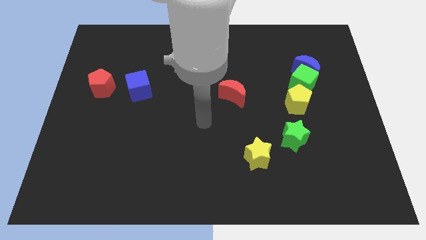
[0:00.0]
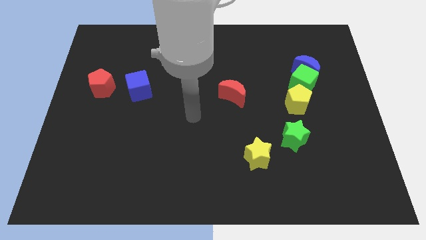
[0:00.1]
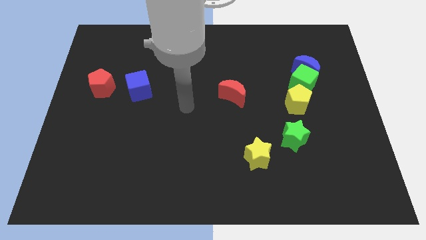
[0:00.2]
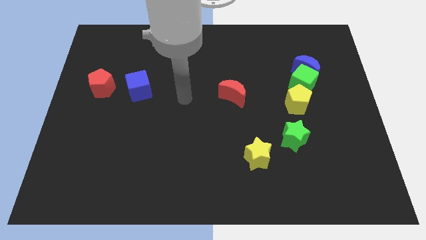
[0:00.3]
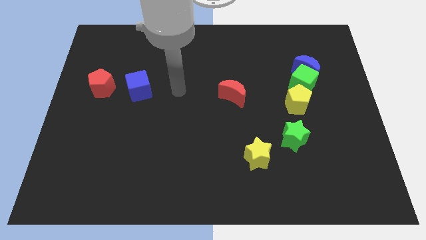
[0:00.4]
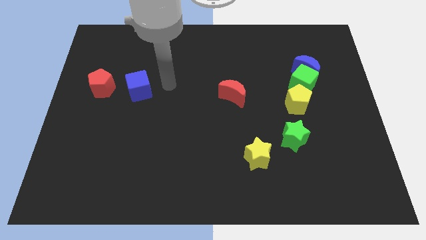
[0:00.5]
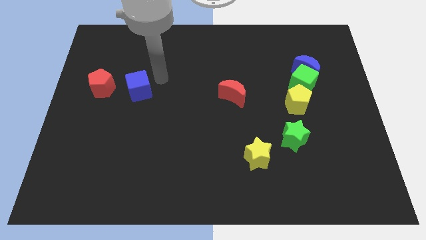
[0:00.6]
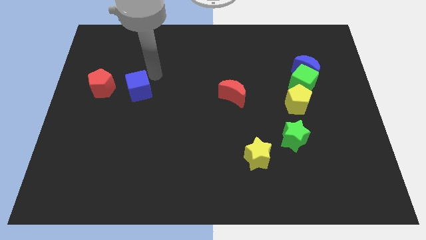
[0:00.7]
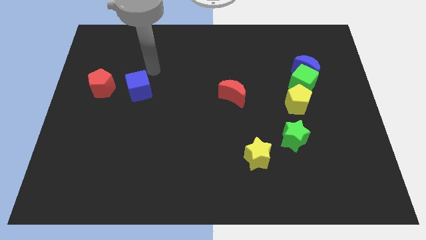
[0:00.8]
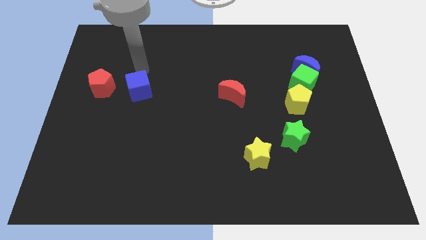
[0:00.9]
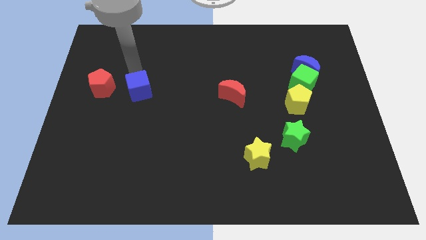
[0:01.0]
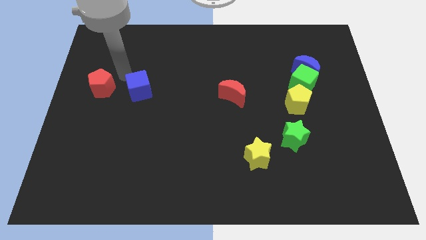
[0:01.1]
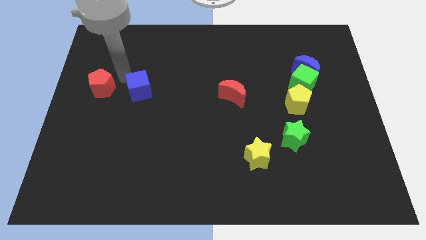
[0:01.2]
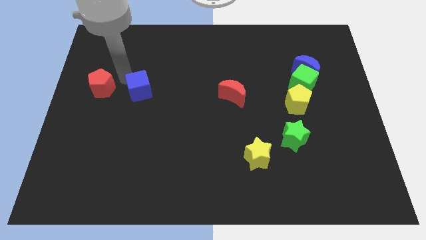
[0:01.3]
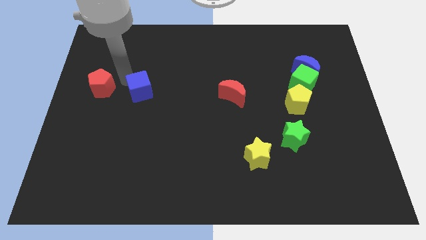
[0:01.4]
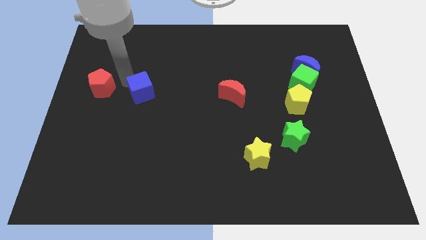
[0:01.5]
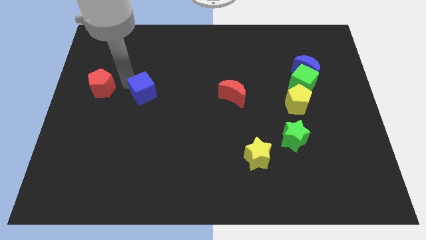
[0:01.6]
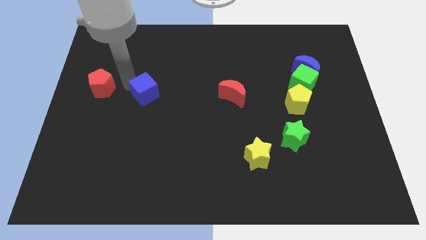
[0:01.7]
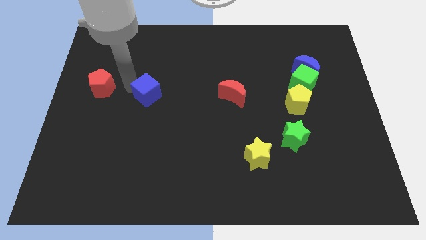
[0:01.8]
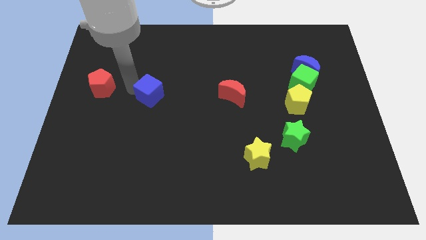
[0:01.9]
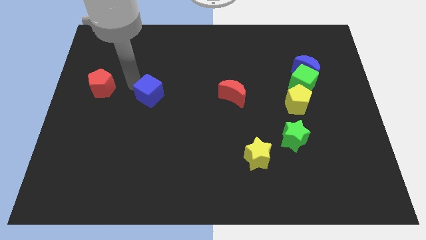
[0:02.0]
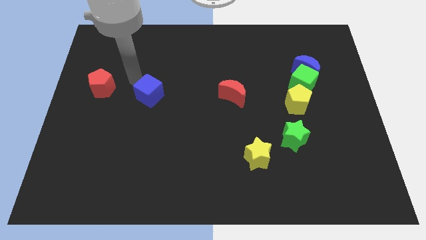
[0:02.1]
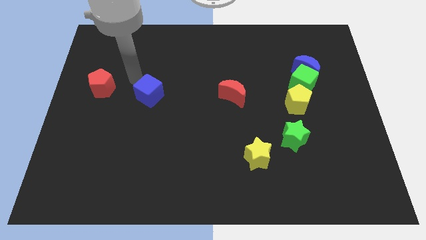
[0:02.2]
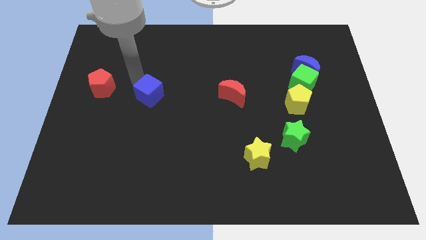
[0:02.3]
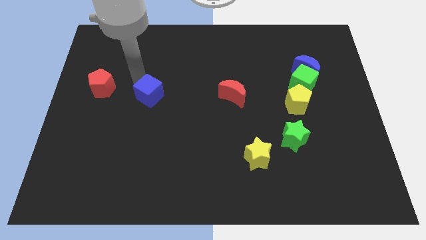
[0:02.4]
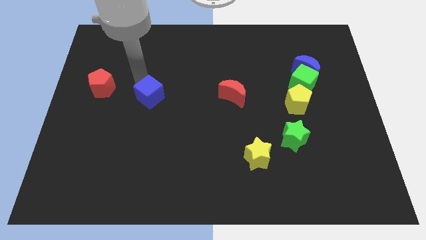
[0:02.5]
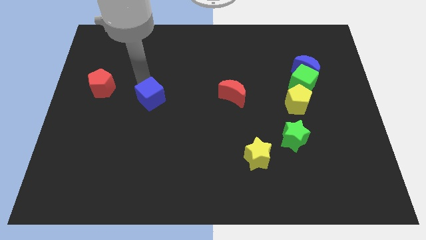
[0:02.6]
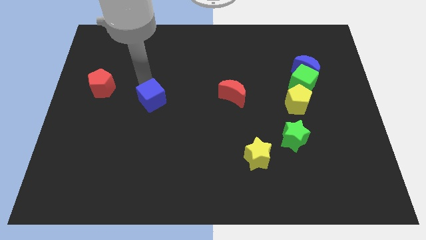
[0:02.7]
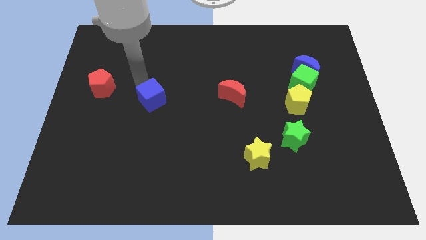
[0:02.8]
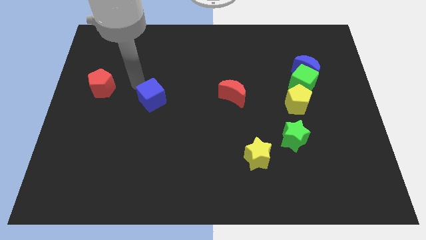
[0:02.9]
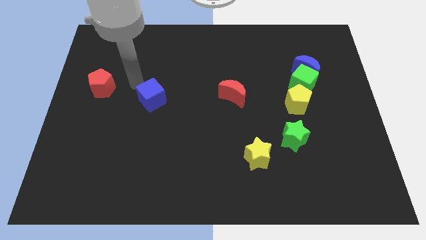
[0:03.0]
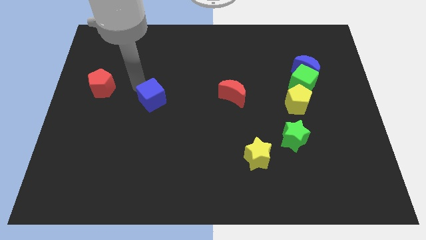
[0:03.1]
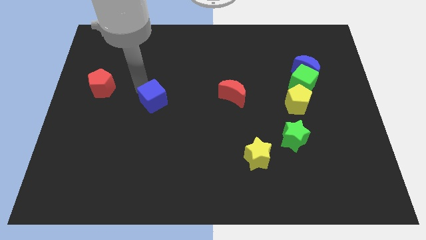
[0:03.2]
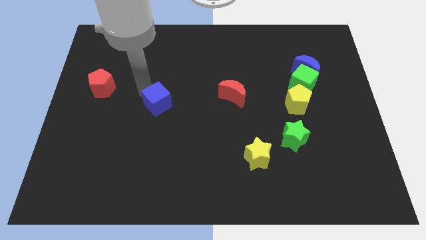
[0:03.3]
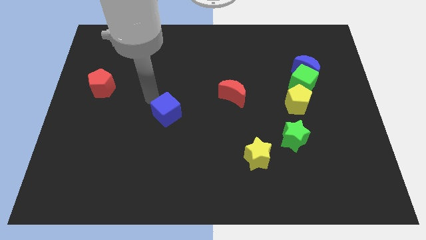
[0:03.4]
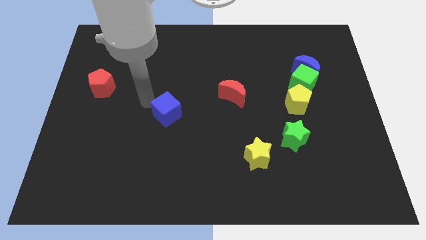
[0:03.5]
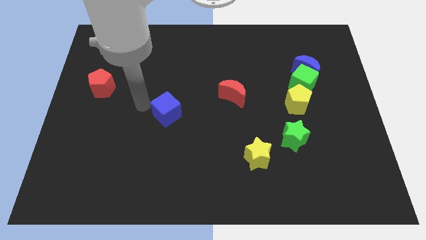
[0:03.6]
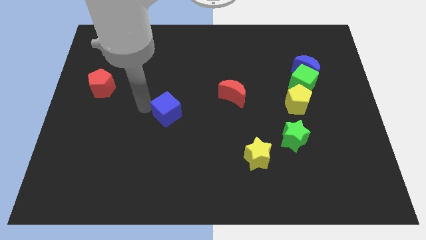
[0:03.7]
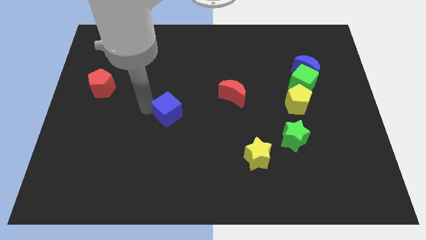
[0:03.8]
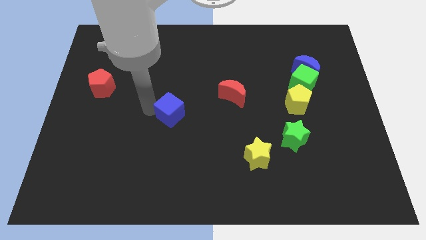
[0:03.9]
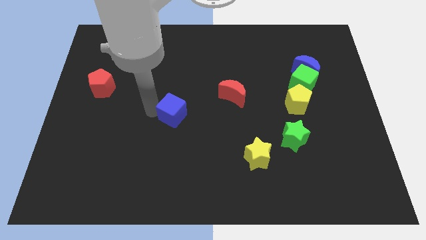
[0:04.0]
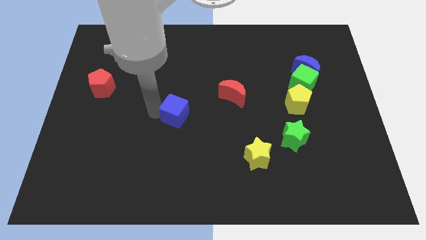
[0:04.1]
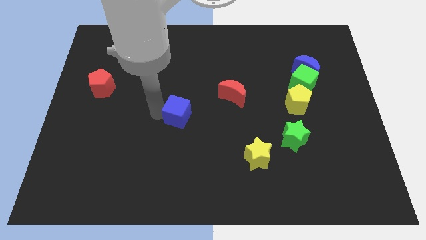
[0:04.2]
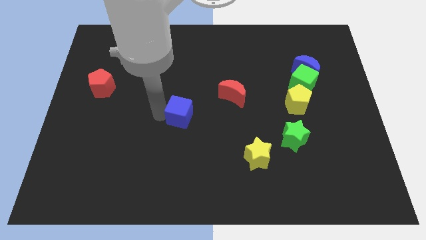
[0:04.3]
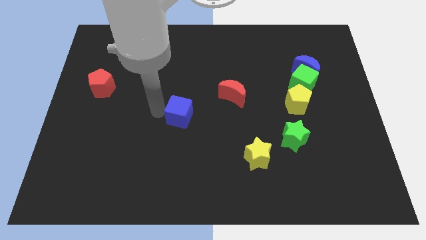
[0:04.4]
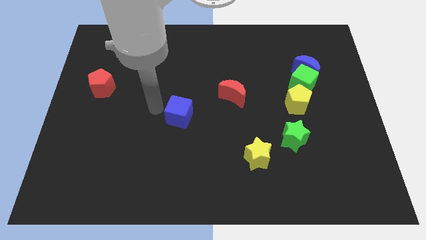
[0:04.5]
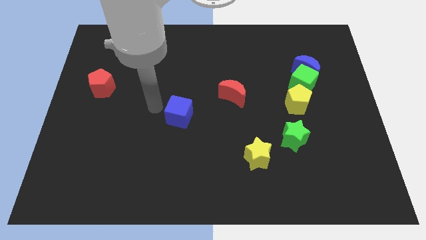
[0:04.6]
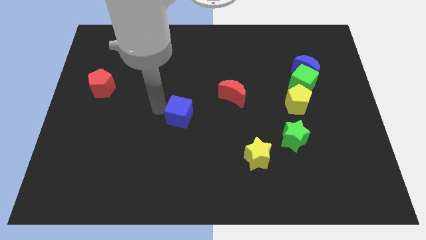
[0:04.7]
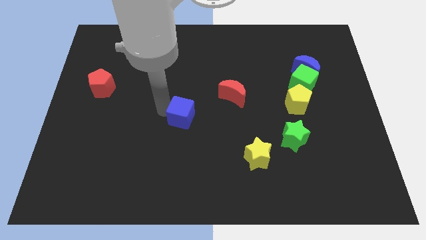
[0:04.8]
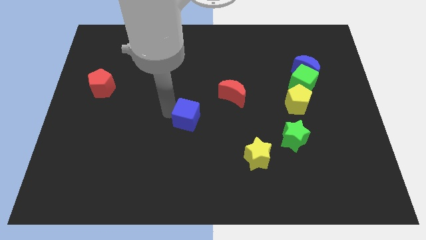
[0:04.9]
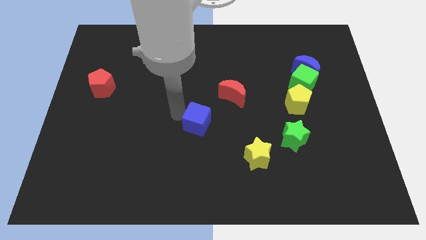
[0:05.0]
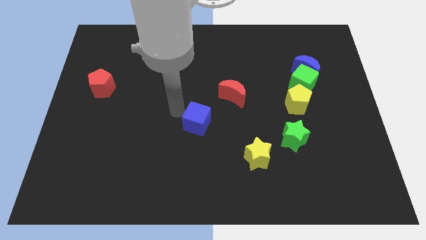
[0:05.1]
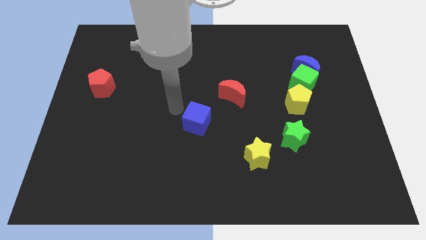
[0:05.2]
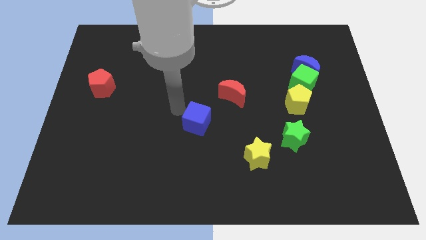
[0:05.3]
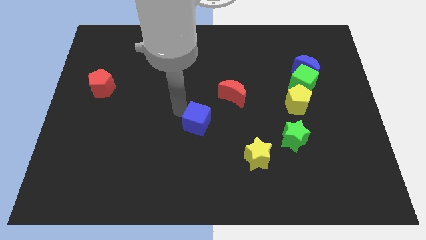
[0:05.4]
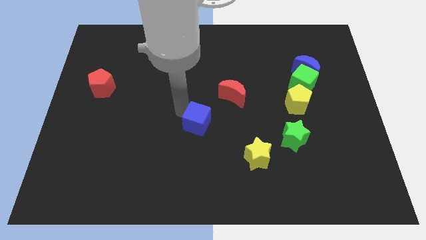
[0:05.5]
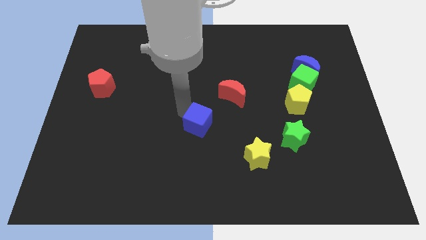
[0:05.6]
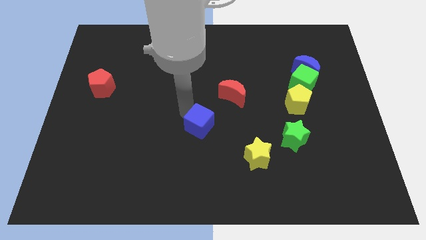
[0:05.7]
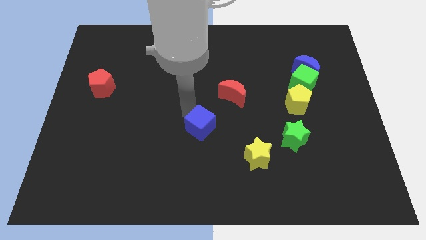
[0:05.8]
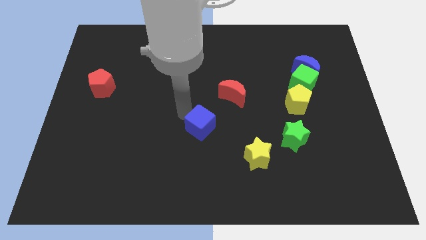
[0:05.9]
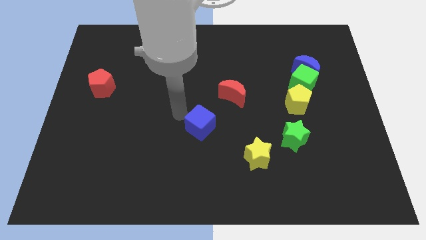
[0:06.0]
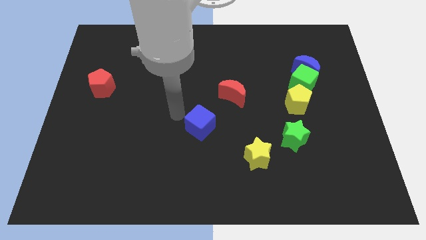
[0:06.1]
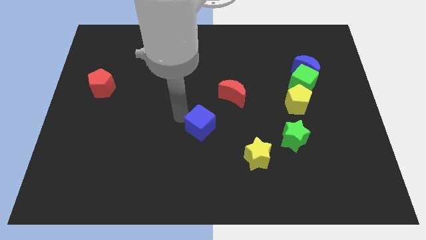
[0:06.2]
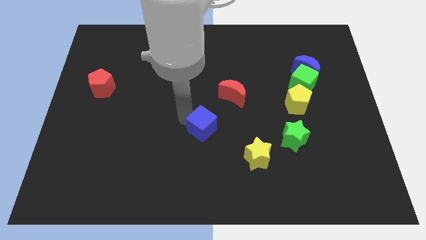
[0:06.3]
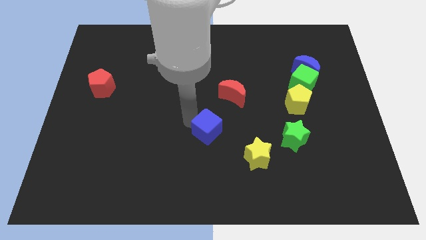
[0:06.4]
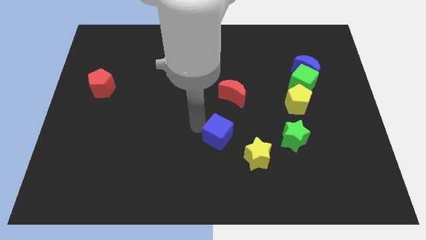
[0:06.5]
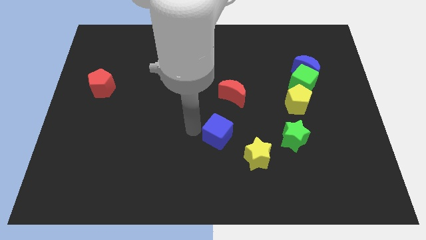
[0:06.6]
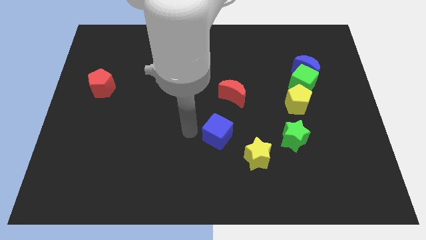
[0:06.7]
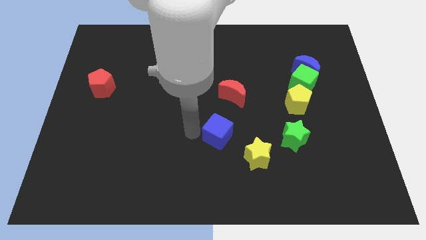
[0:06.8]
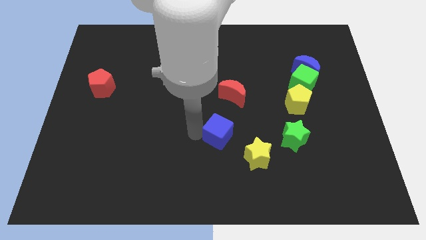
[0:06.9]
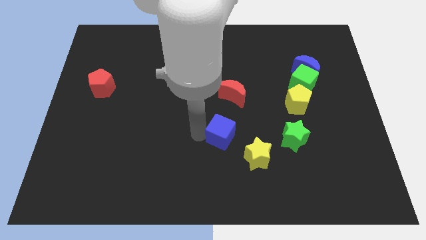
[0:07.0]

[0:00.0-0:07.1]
move the blue cube to the left side of the green star

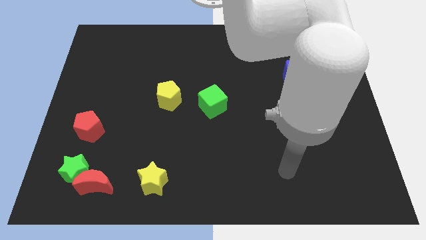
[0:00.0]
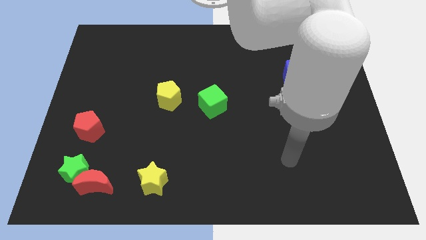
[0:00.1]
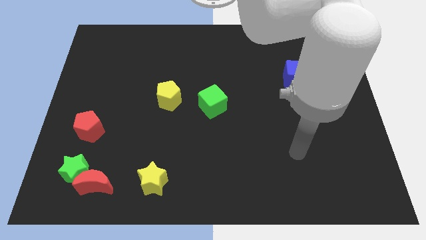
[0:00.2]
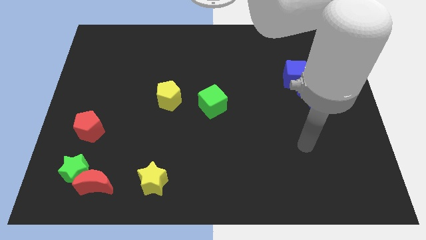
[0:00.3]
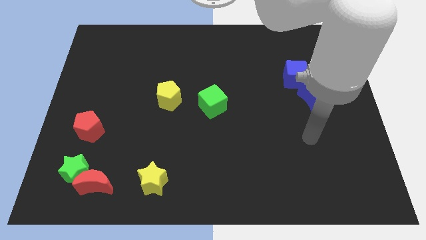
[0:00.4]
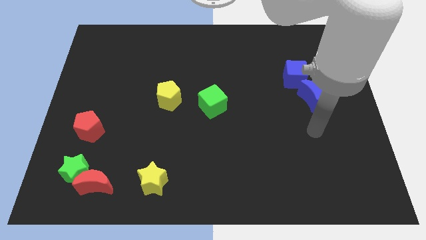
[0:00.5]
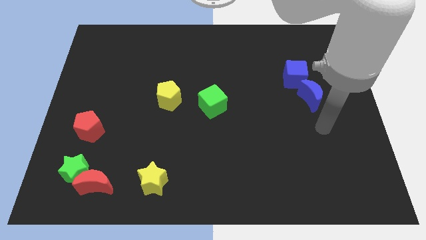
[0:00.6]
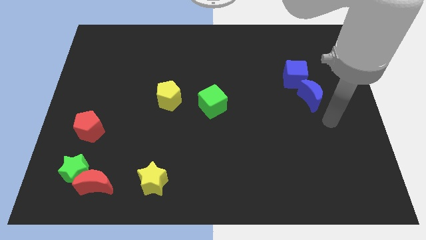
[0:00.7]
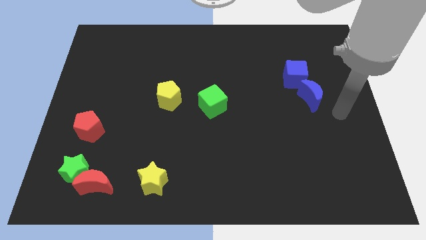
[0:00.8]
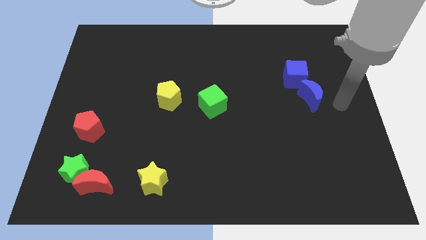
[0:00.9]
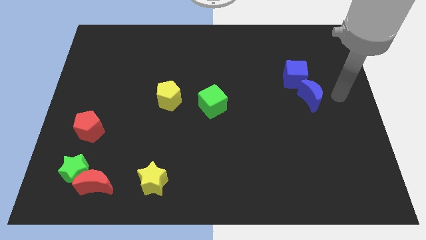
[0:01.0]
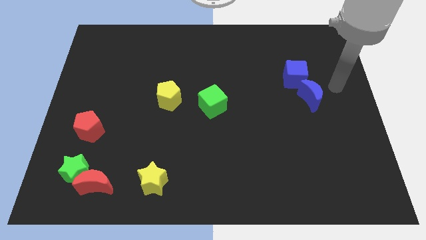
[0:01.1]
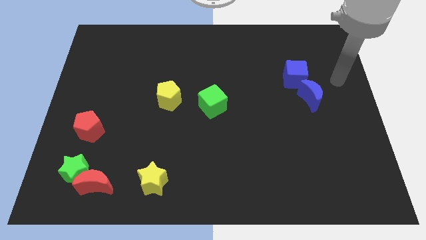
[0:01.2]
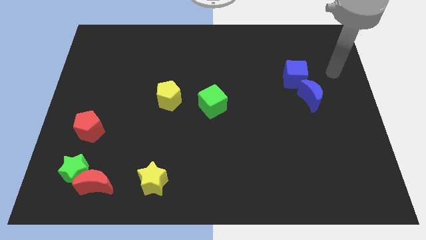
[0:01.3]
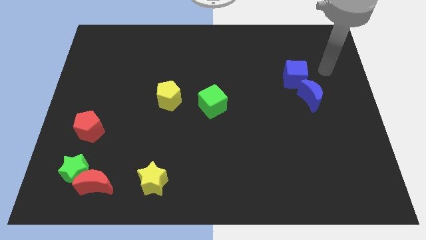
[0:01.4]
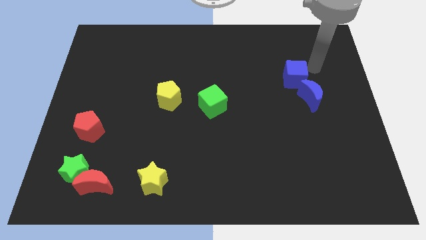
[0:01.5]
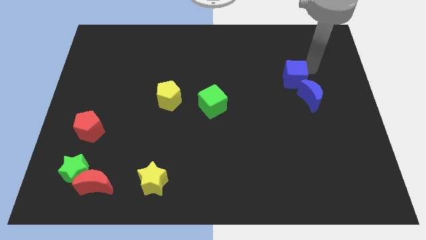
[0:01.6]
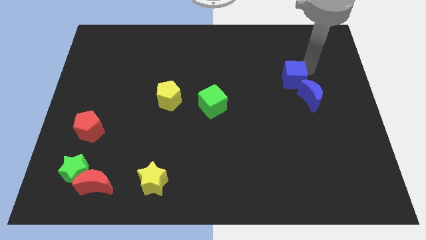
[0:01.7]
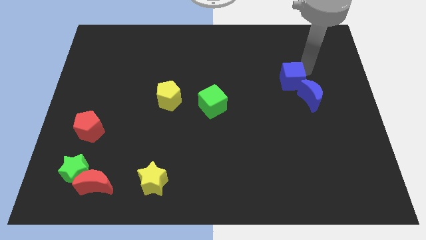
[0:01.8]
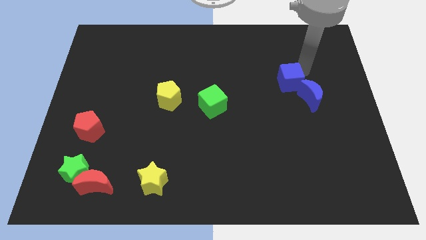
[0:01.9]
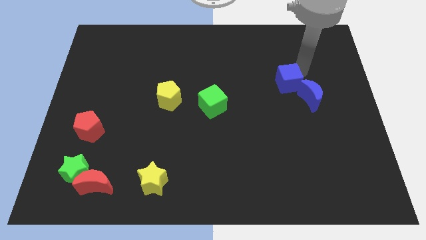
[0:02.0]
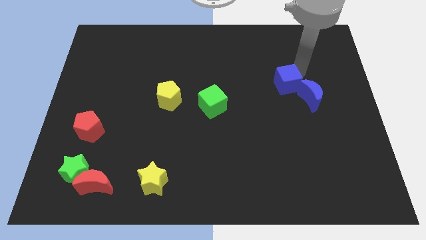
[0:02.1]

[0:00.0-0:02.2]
put the blue cube to the left of the blue moon
